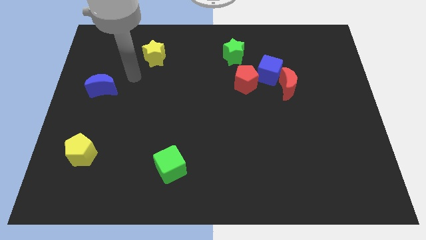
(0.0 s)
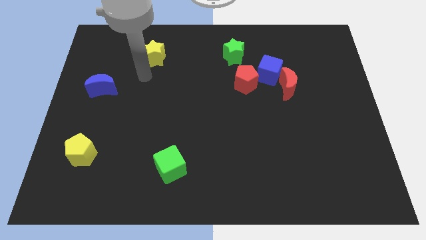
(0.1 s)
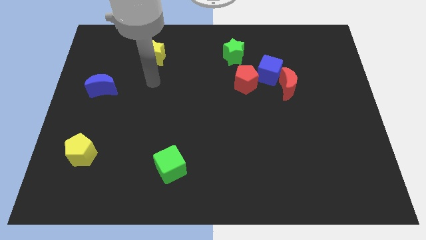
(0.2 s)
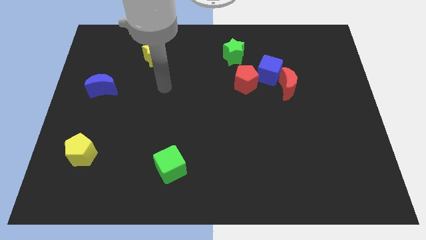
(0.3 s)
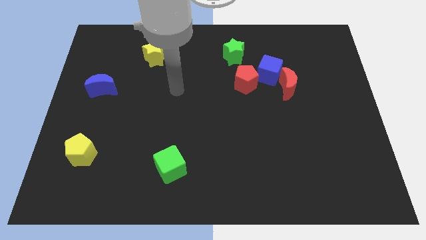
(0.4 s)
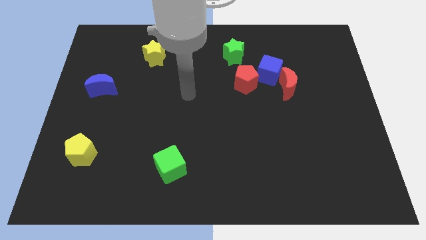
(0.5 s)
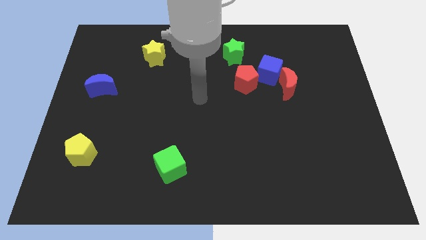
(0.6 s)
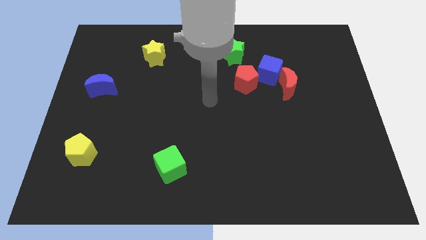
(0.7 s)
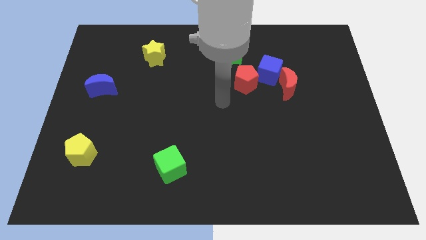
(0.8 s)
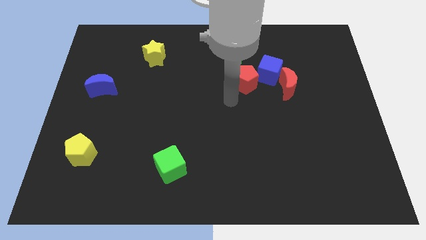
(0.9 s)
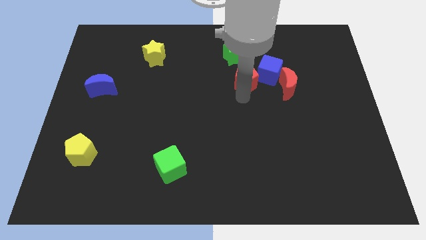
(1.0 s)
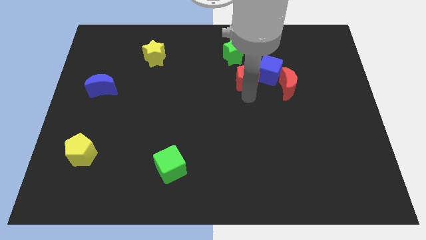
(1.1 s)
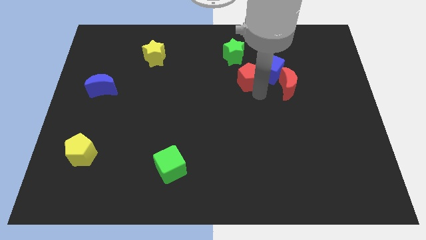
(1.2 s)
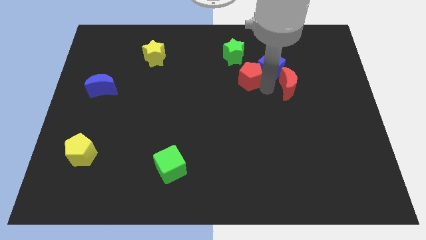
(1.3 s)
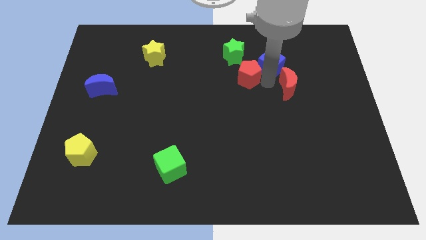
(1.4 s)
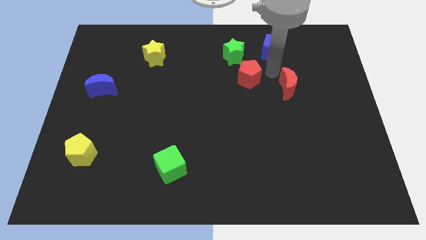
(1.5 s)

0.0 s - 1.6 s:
separate the red moon from the blue cube

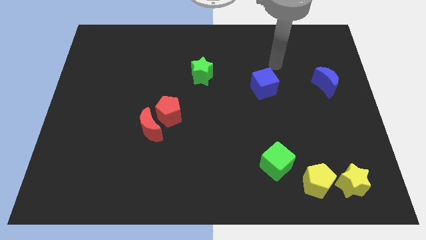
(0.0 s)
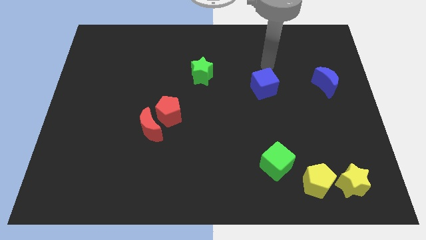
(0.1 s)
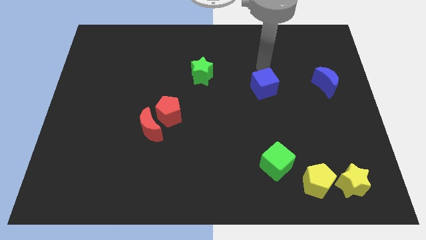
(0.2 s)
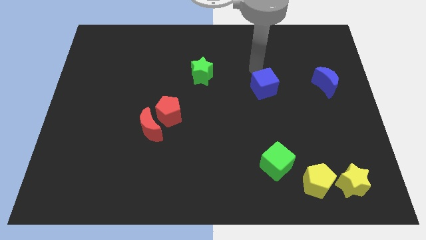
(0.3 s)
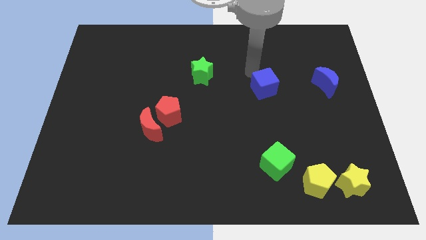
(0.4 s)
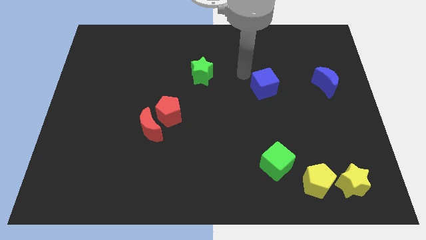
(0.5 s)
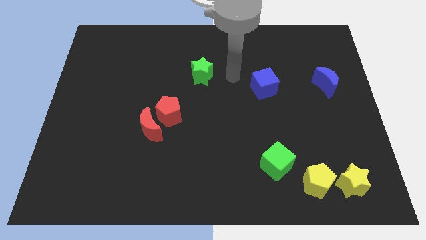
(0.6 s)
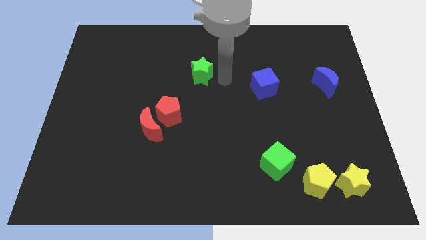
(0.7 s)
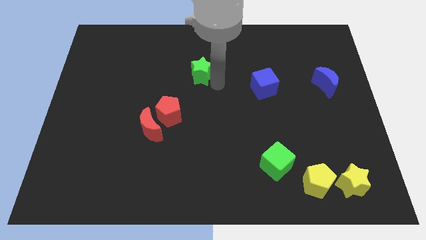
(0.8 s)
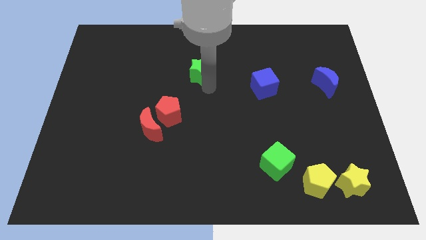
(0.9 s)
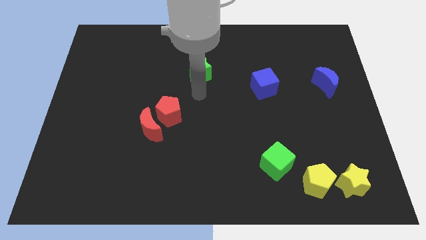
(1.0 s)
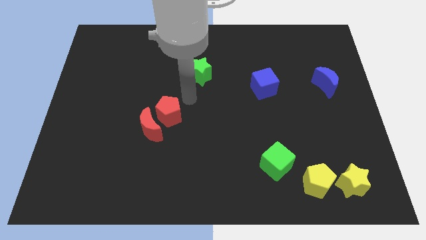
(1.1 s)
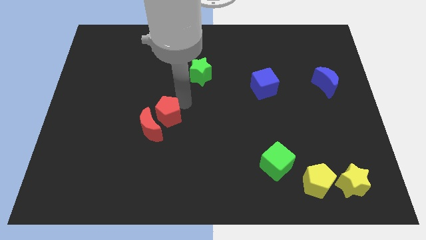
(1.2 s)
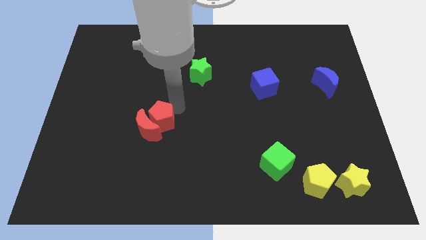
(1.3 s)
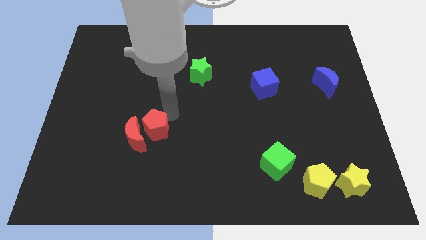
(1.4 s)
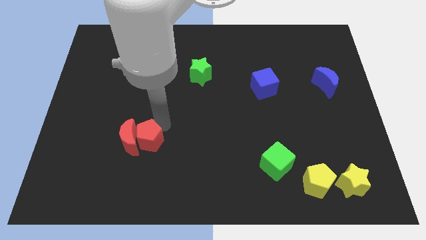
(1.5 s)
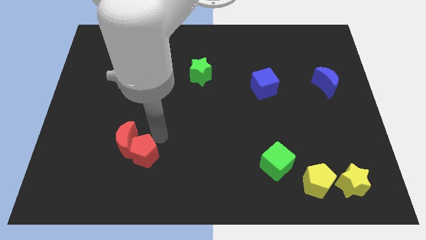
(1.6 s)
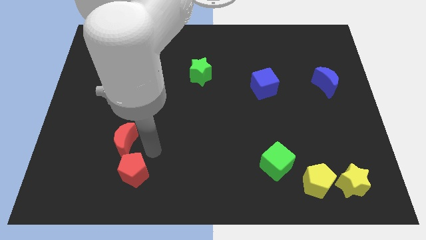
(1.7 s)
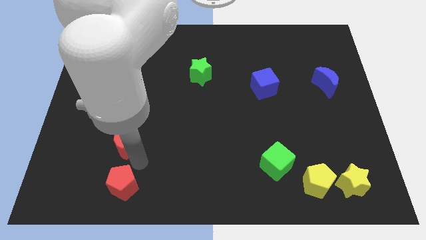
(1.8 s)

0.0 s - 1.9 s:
move the red moon away from the red pentagon

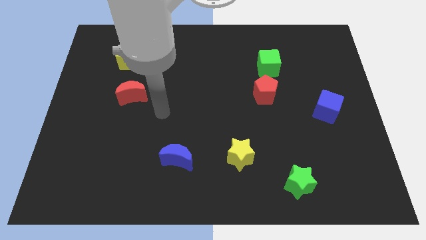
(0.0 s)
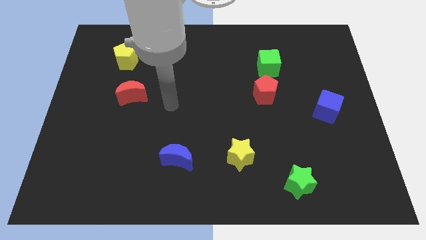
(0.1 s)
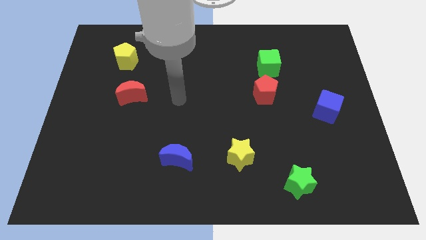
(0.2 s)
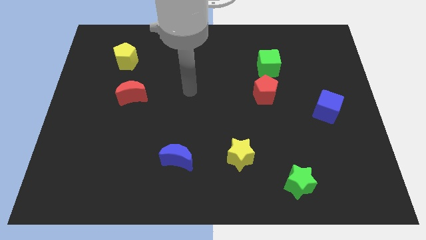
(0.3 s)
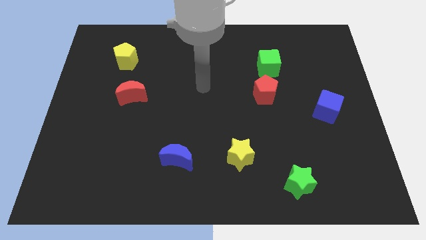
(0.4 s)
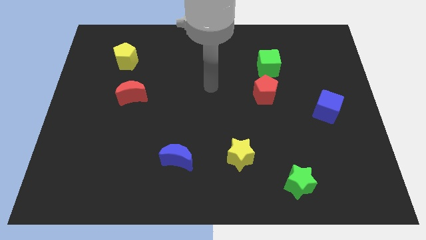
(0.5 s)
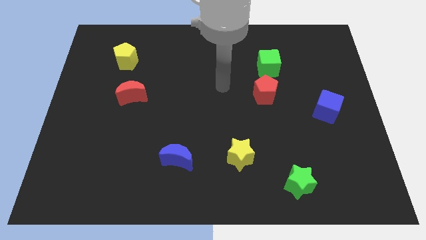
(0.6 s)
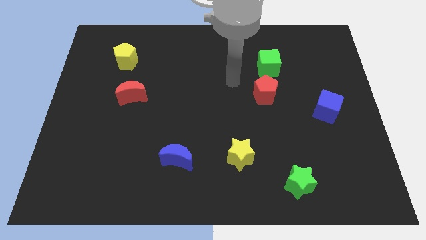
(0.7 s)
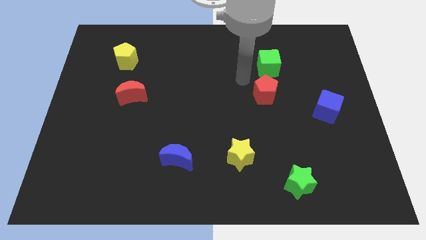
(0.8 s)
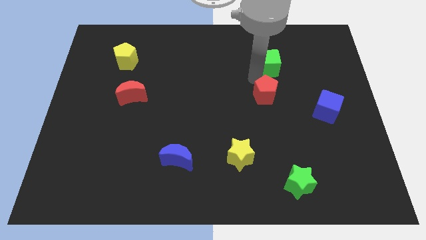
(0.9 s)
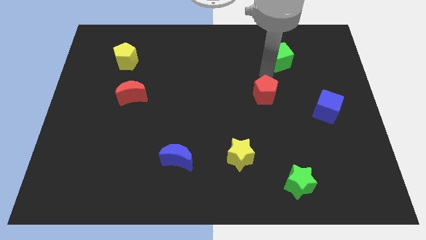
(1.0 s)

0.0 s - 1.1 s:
separate the red pentagon from the green cube

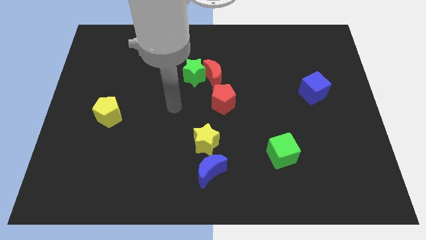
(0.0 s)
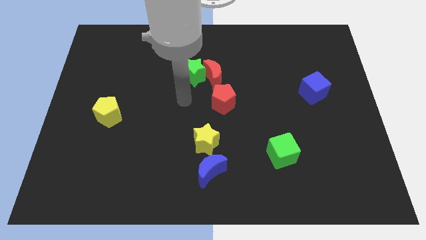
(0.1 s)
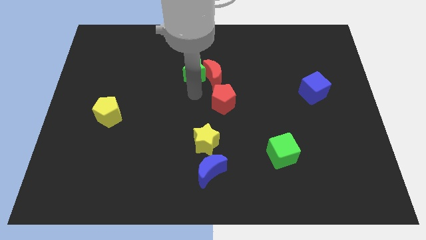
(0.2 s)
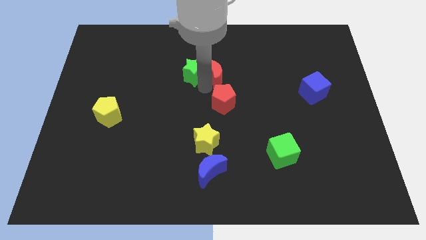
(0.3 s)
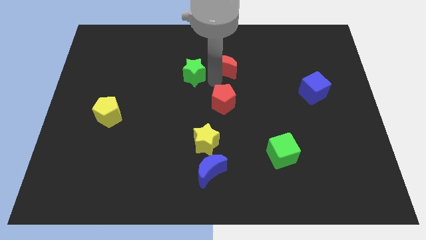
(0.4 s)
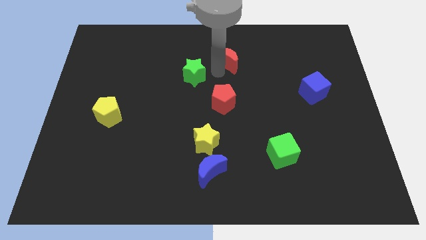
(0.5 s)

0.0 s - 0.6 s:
separate the green star from the red moon

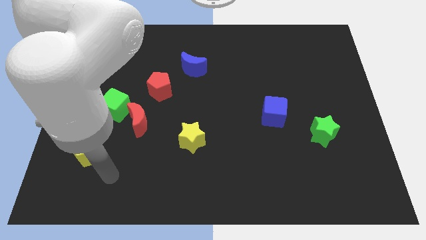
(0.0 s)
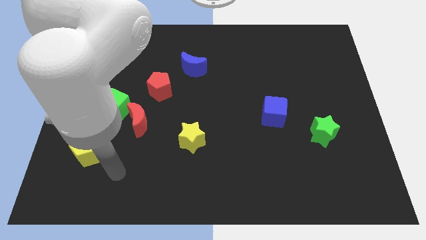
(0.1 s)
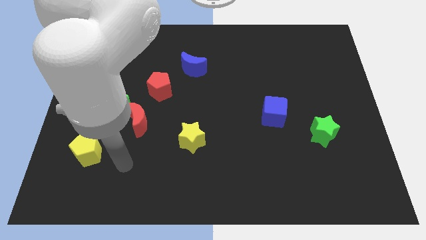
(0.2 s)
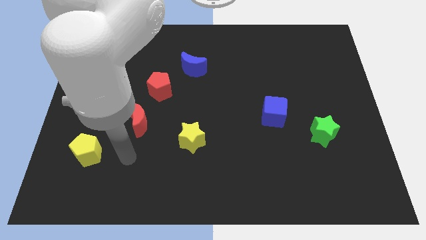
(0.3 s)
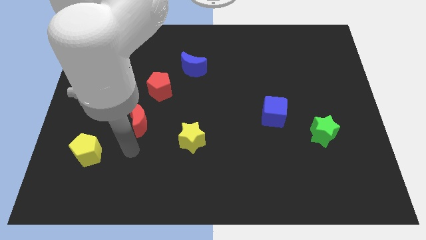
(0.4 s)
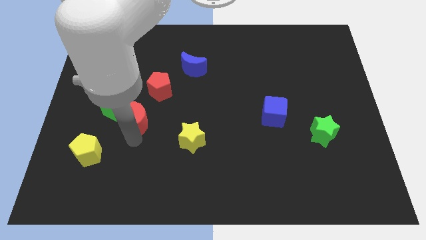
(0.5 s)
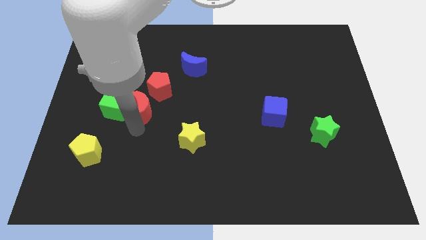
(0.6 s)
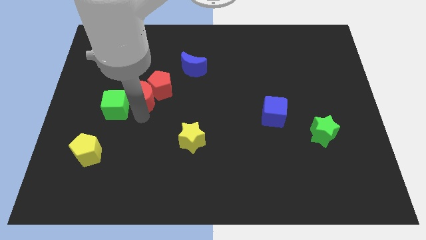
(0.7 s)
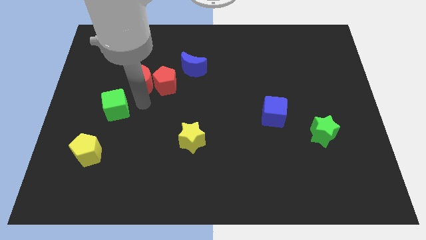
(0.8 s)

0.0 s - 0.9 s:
move the green cube away from the red moon

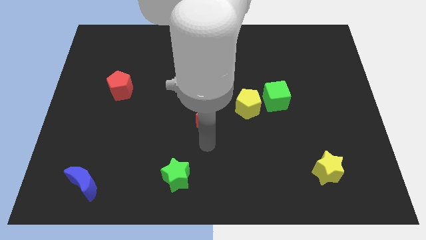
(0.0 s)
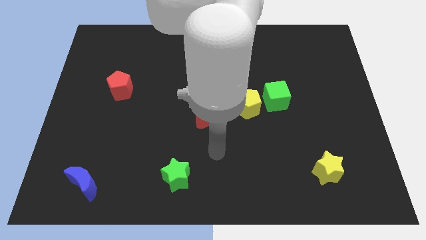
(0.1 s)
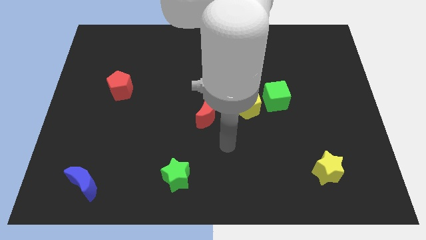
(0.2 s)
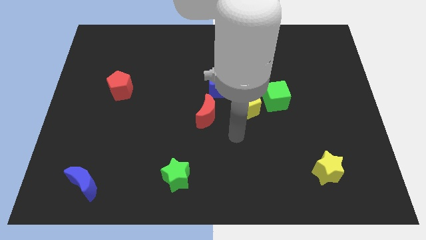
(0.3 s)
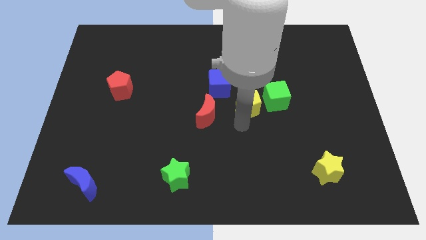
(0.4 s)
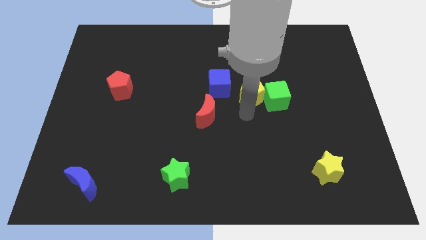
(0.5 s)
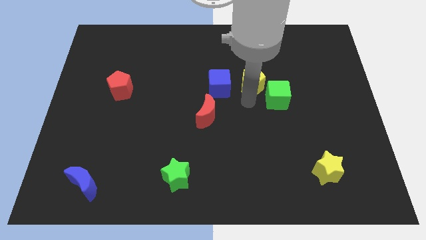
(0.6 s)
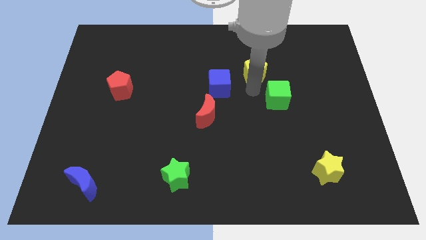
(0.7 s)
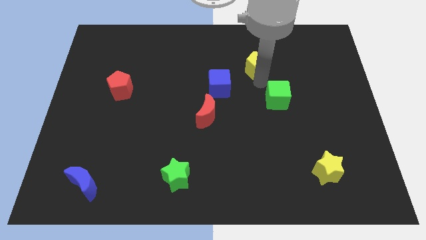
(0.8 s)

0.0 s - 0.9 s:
move the green cube away from the yellow pentagon

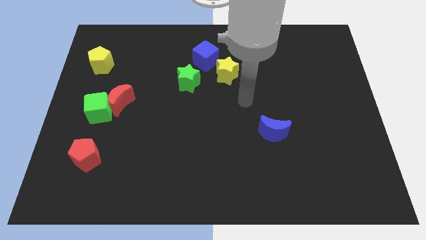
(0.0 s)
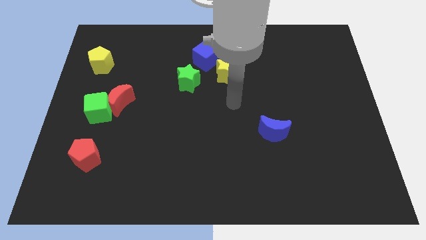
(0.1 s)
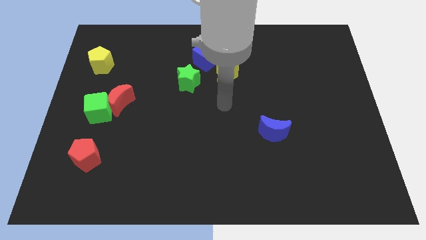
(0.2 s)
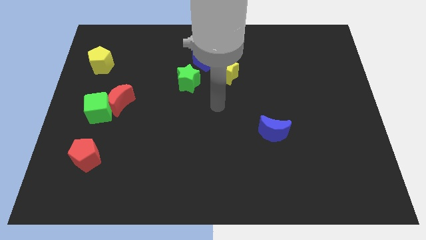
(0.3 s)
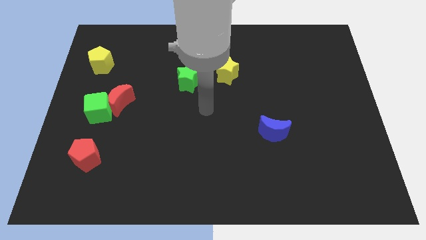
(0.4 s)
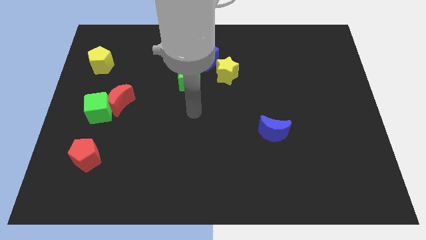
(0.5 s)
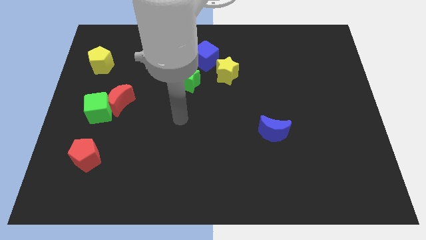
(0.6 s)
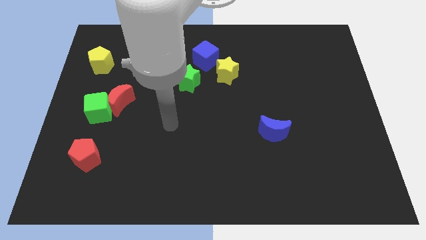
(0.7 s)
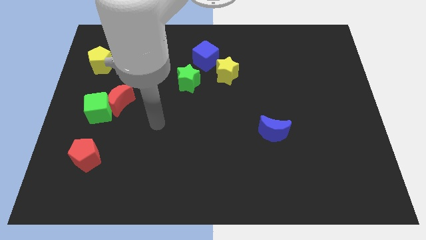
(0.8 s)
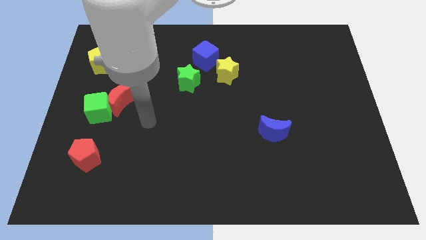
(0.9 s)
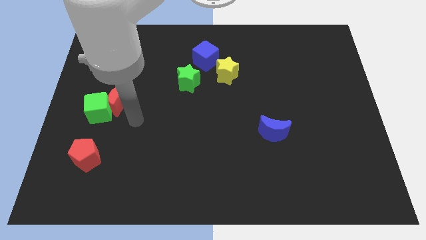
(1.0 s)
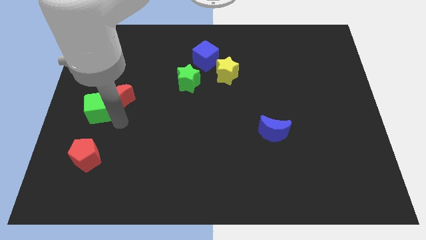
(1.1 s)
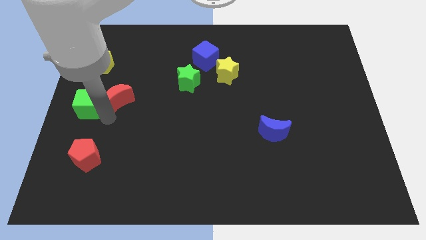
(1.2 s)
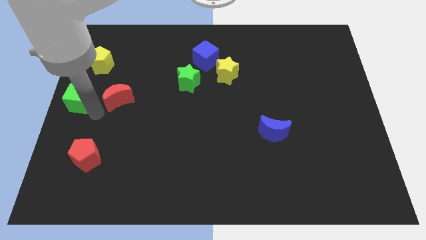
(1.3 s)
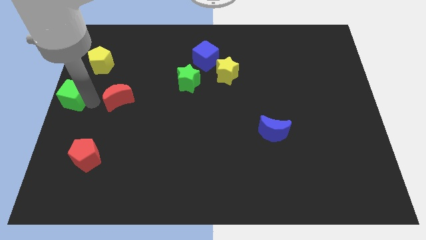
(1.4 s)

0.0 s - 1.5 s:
separate the red moon from the green cube

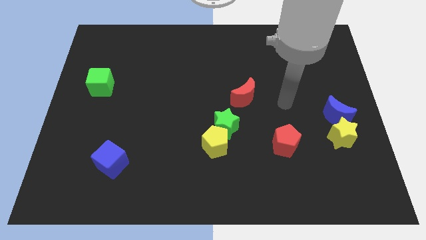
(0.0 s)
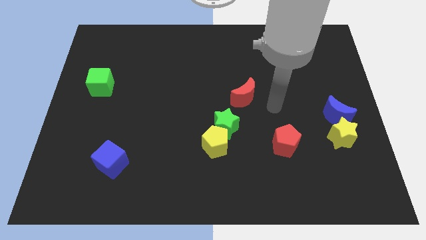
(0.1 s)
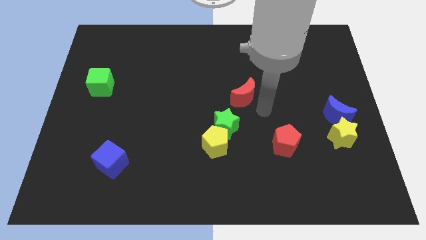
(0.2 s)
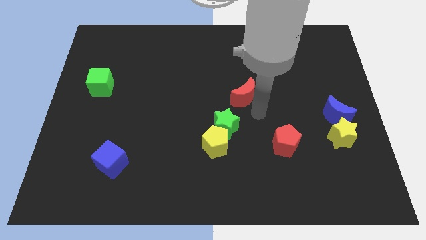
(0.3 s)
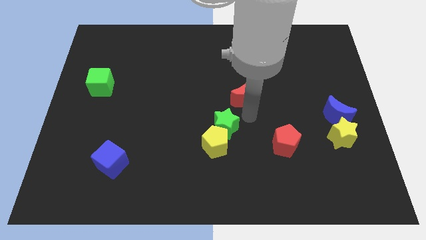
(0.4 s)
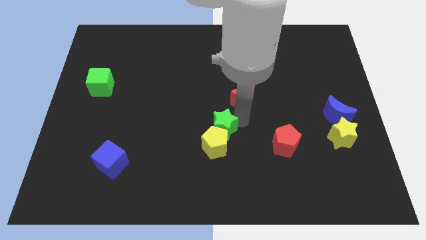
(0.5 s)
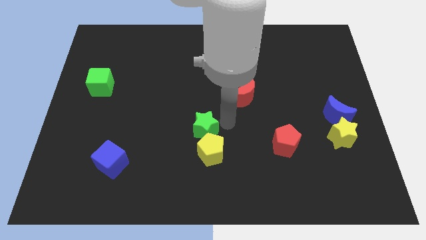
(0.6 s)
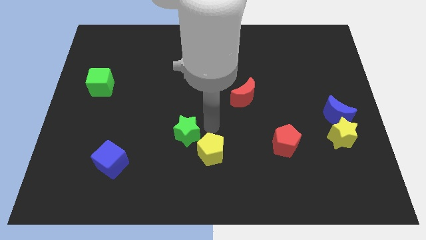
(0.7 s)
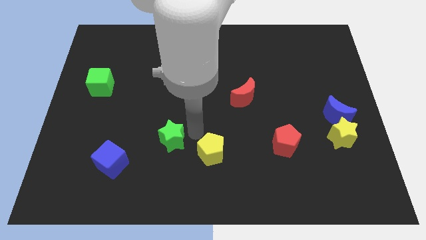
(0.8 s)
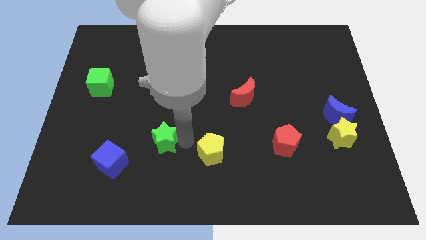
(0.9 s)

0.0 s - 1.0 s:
move the yellow pentagon away from the green star
